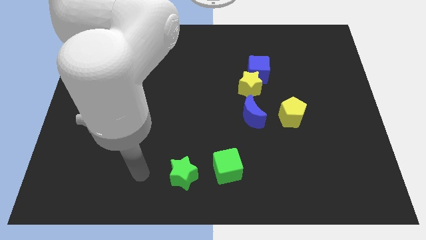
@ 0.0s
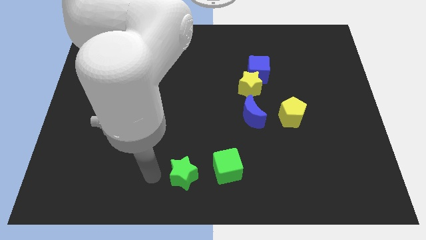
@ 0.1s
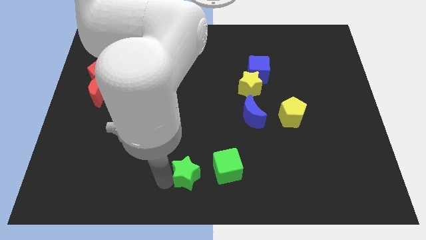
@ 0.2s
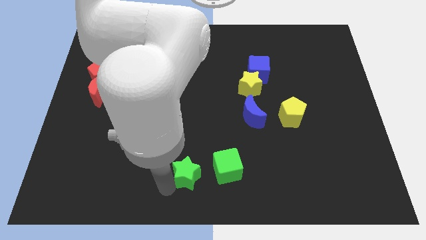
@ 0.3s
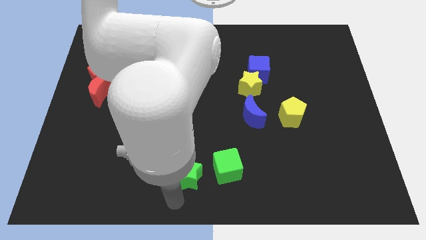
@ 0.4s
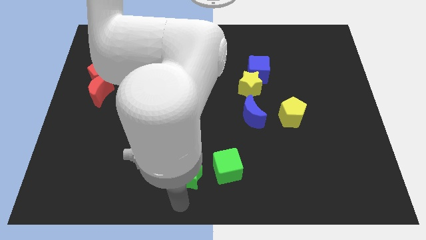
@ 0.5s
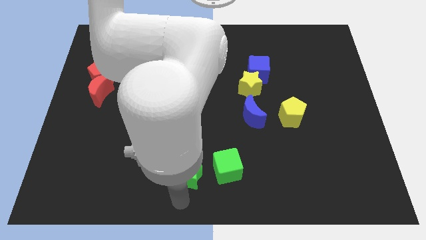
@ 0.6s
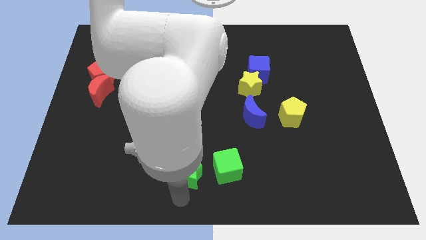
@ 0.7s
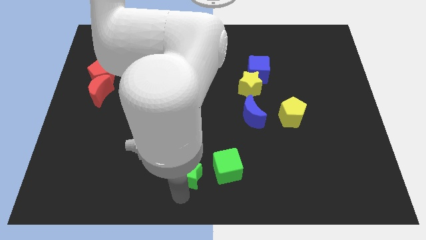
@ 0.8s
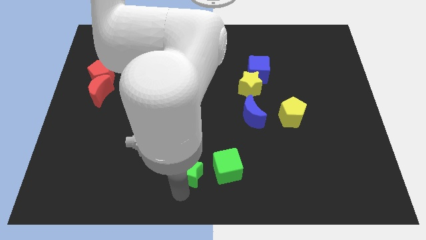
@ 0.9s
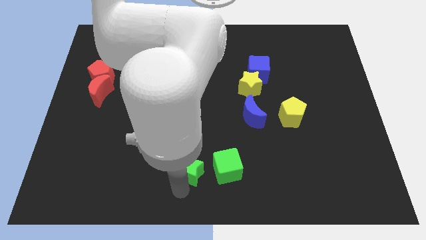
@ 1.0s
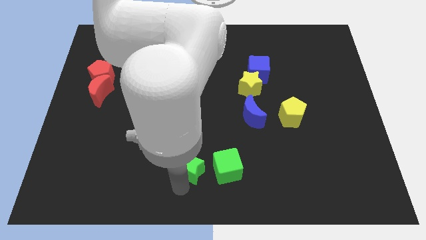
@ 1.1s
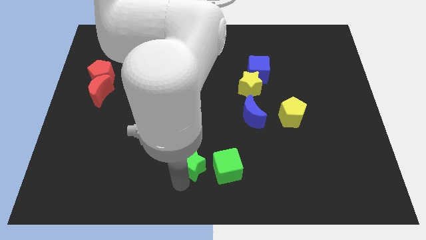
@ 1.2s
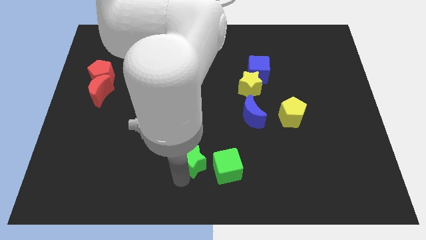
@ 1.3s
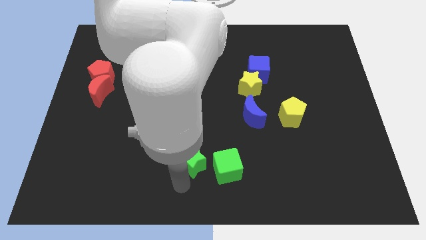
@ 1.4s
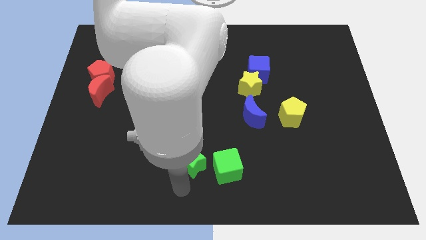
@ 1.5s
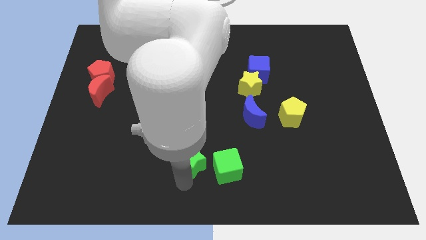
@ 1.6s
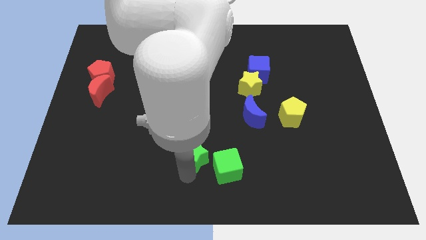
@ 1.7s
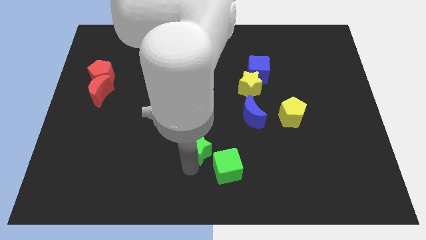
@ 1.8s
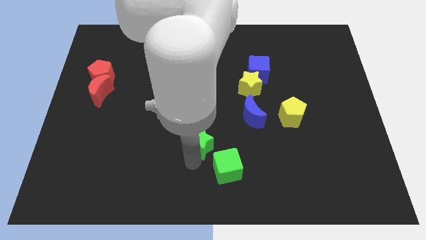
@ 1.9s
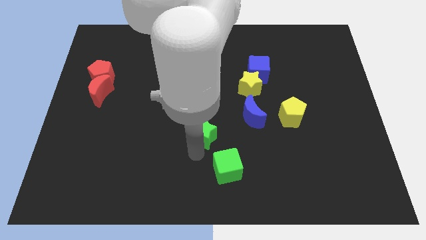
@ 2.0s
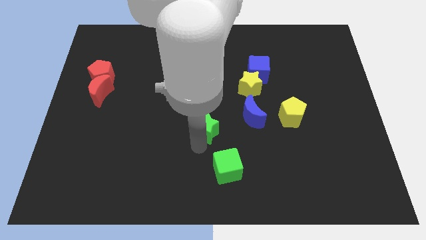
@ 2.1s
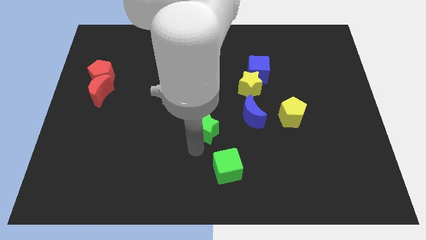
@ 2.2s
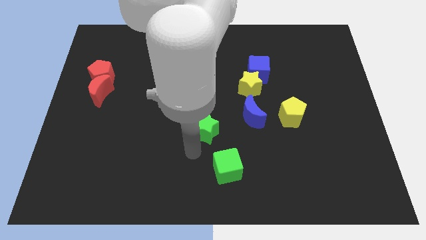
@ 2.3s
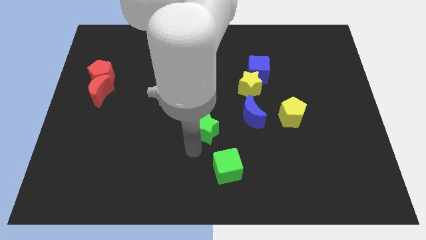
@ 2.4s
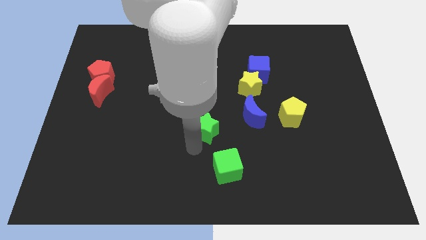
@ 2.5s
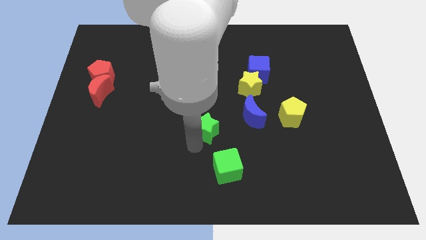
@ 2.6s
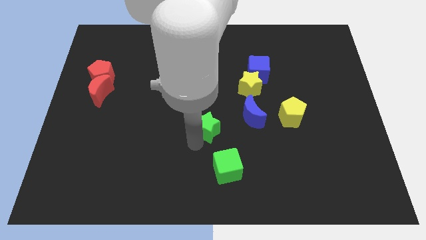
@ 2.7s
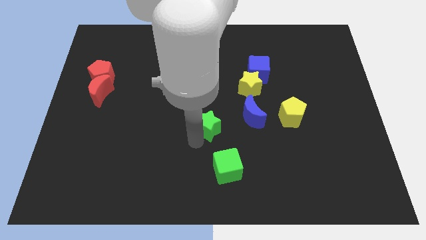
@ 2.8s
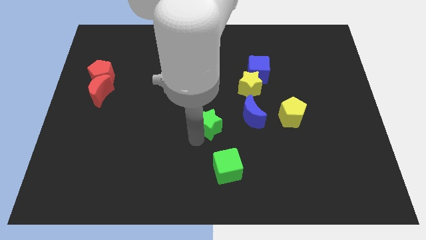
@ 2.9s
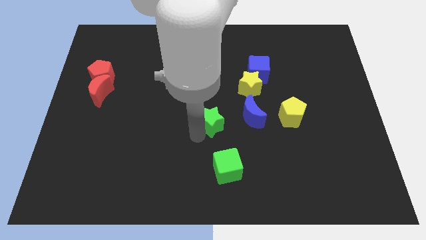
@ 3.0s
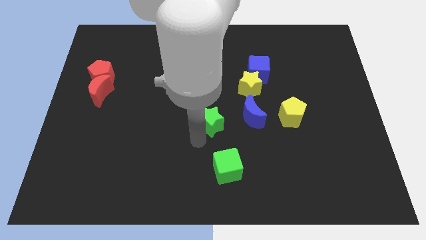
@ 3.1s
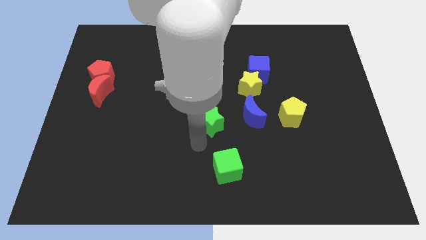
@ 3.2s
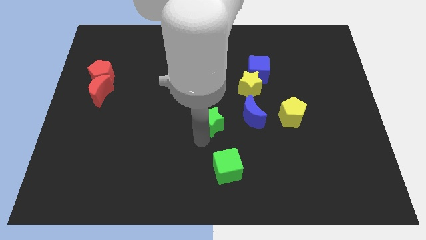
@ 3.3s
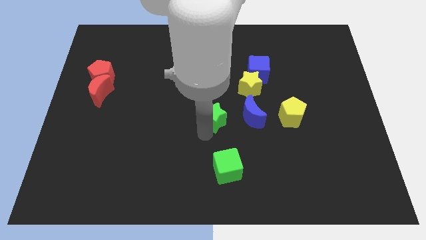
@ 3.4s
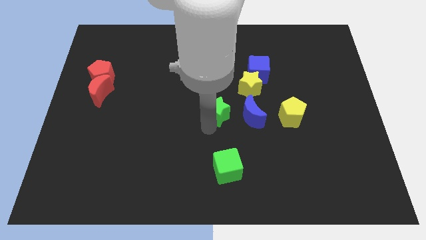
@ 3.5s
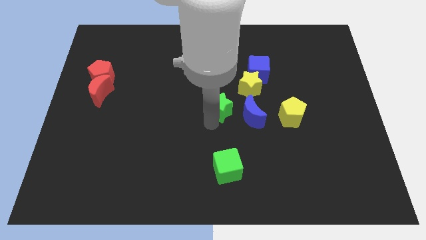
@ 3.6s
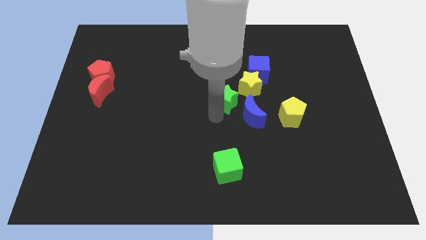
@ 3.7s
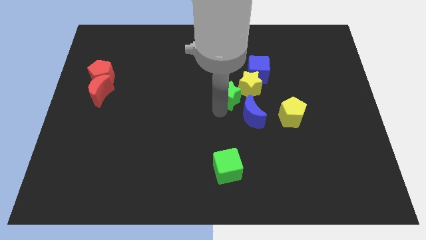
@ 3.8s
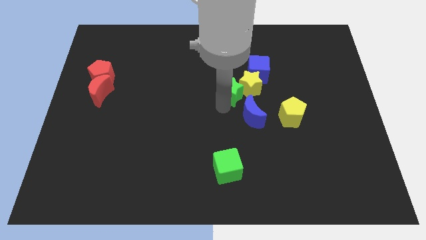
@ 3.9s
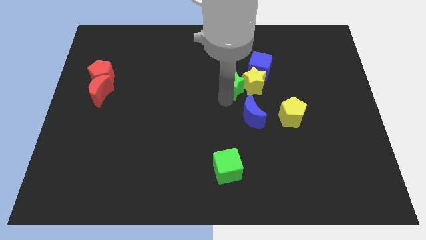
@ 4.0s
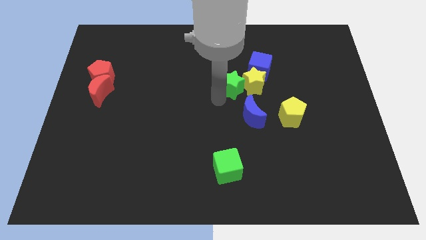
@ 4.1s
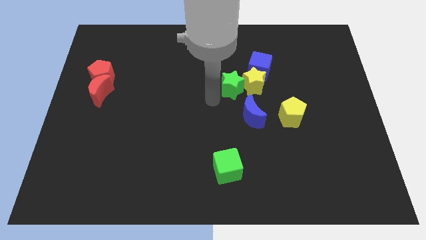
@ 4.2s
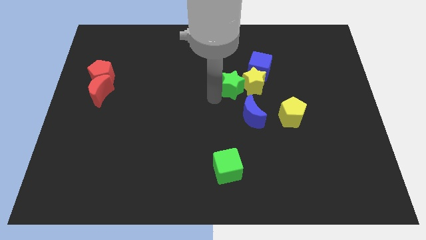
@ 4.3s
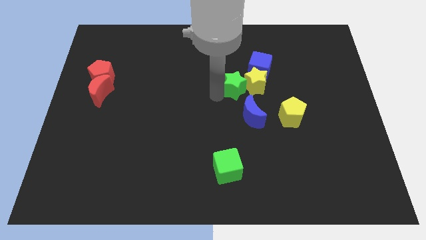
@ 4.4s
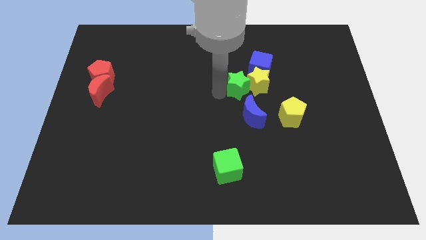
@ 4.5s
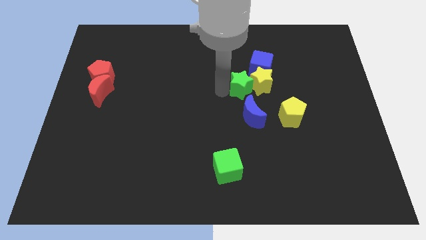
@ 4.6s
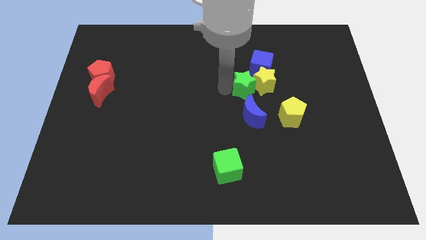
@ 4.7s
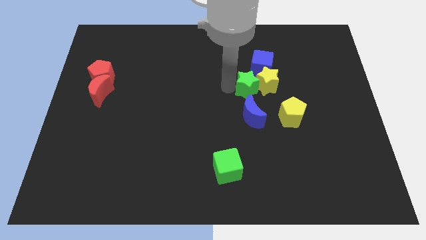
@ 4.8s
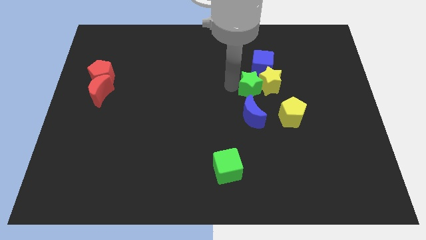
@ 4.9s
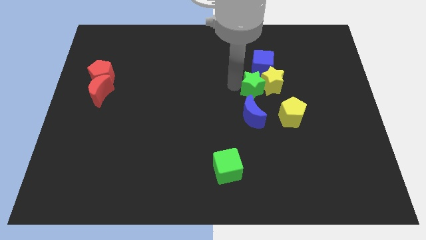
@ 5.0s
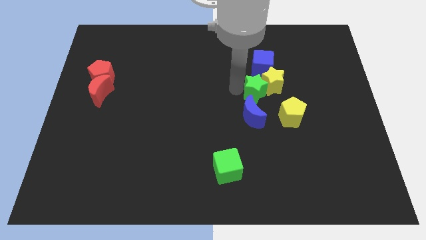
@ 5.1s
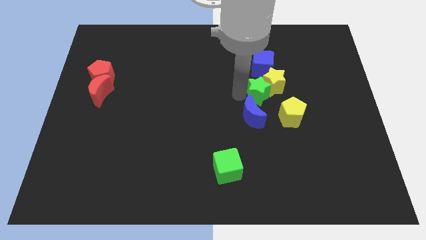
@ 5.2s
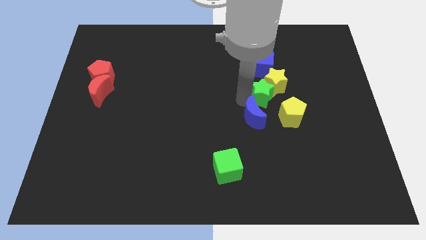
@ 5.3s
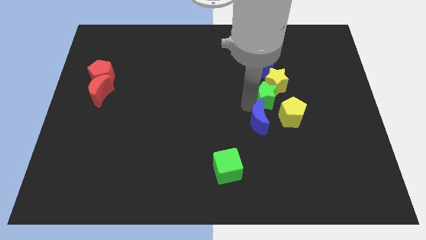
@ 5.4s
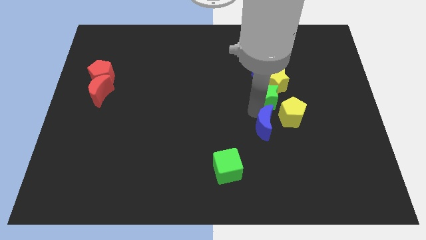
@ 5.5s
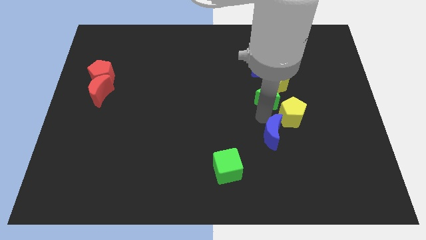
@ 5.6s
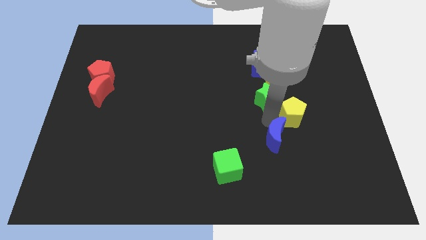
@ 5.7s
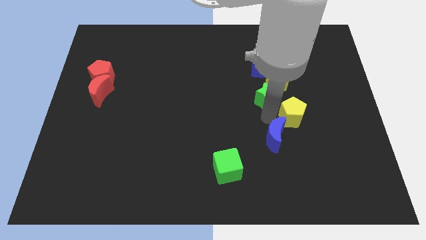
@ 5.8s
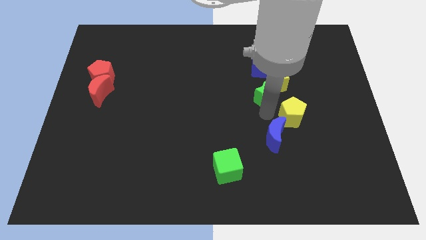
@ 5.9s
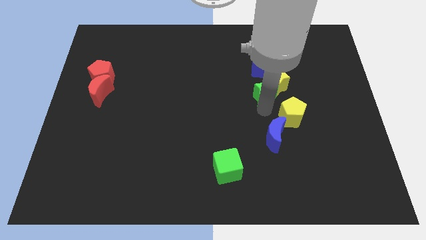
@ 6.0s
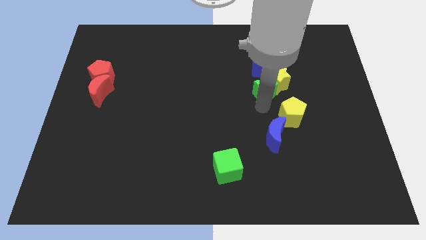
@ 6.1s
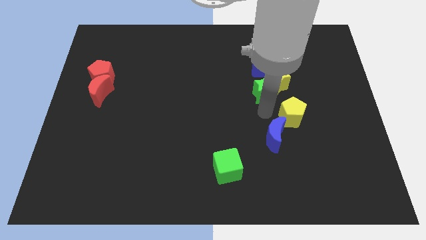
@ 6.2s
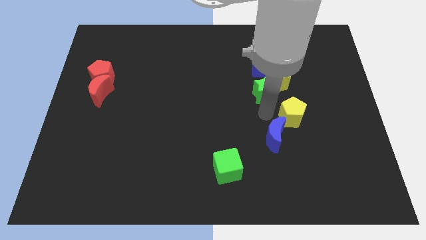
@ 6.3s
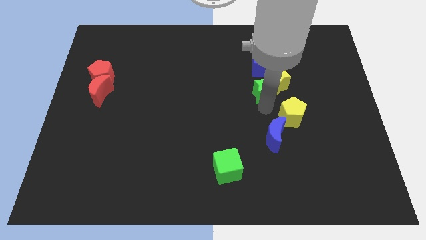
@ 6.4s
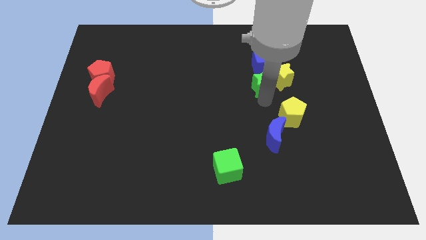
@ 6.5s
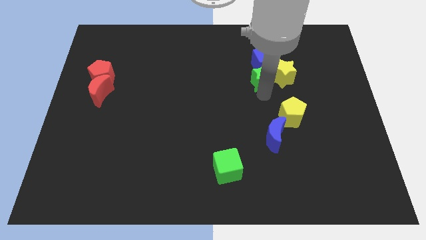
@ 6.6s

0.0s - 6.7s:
put the green star close to the blue cube
